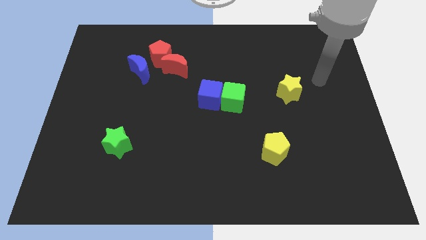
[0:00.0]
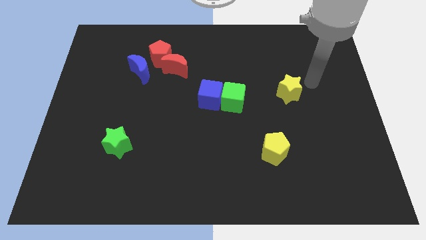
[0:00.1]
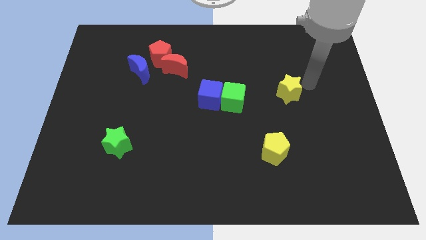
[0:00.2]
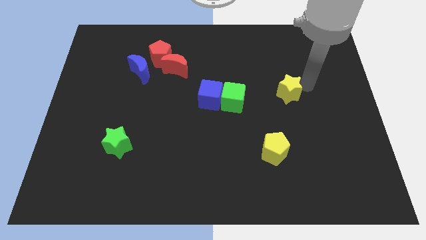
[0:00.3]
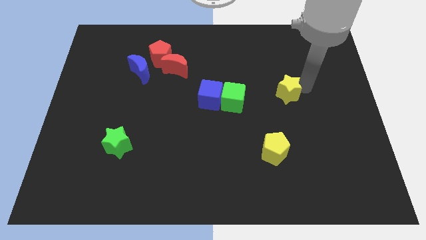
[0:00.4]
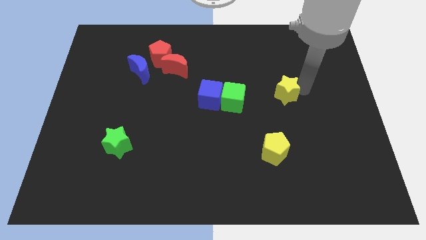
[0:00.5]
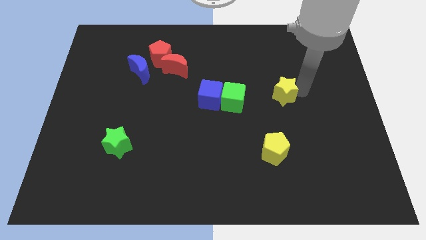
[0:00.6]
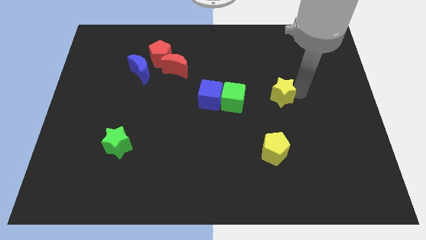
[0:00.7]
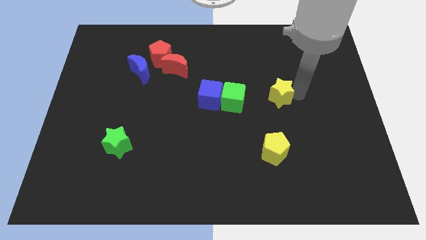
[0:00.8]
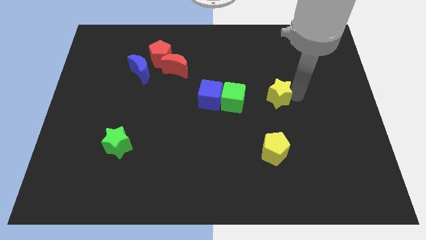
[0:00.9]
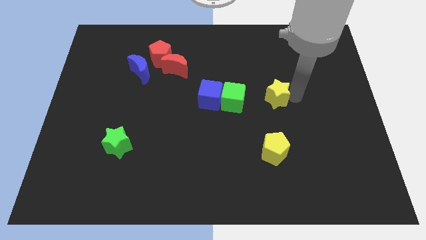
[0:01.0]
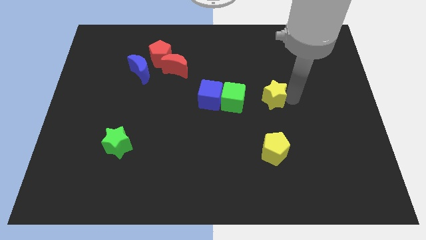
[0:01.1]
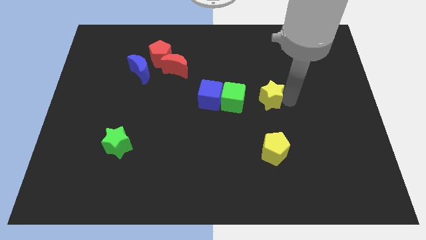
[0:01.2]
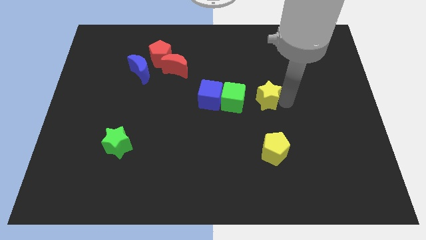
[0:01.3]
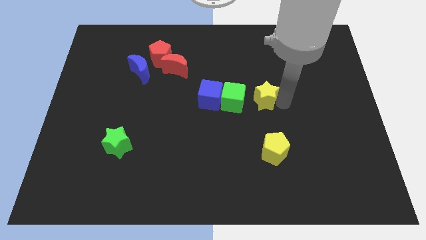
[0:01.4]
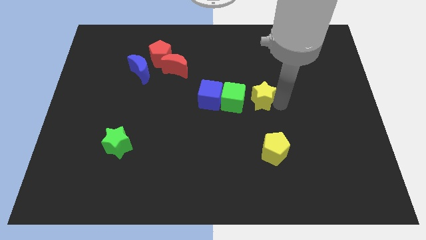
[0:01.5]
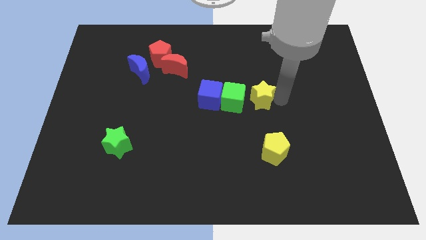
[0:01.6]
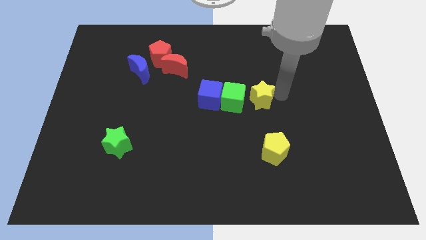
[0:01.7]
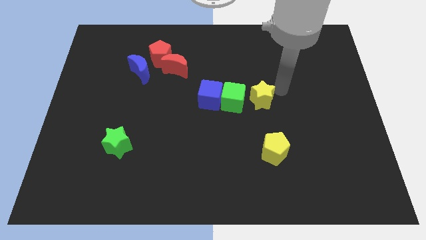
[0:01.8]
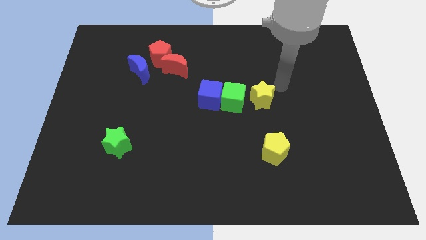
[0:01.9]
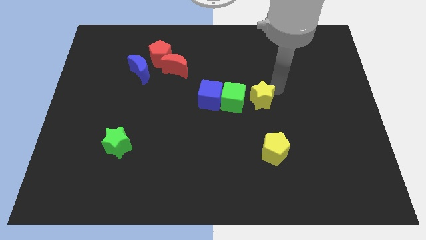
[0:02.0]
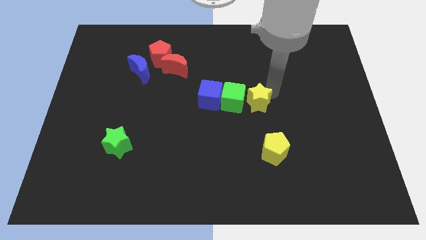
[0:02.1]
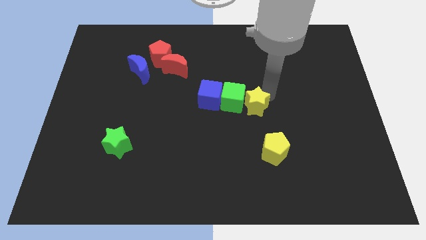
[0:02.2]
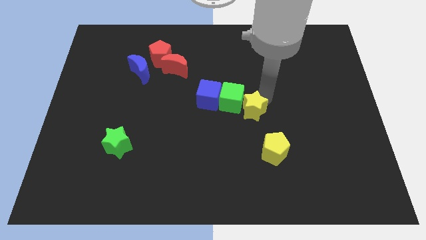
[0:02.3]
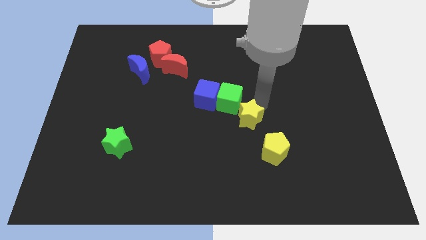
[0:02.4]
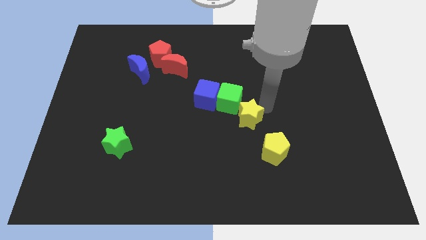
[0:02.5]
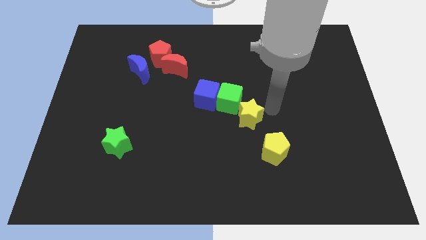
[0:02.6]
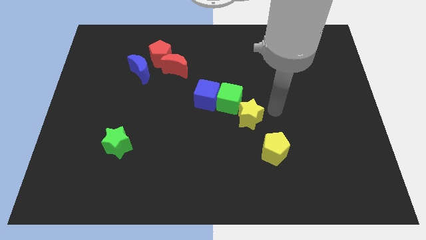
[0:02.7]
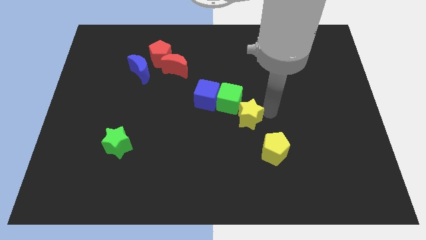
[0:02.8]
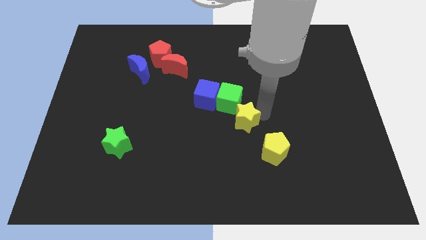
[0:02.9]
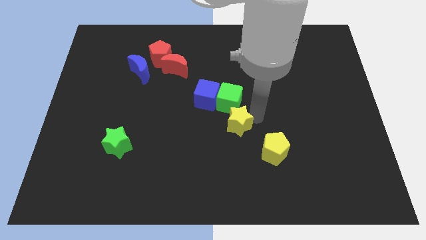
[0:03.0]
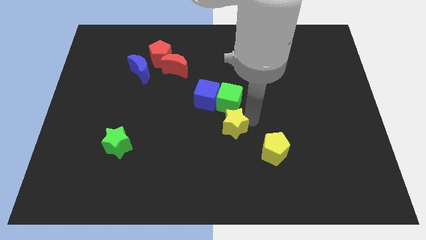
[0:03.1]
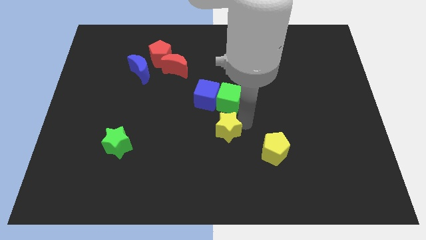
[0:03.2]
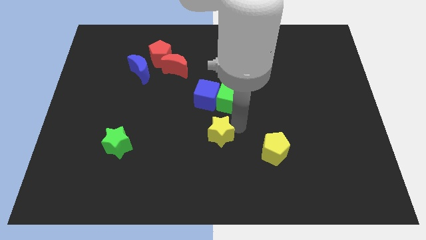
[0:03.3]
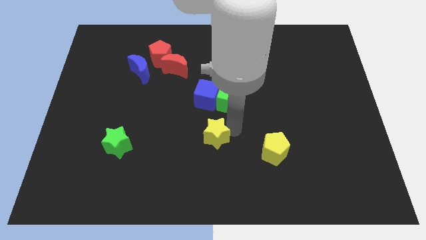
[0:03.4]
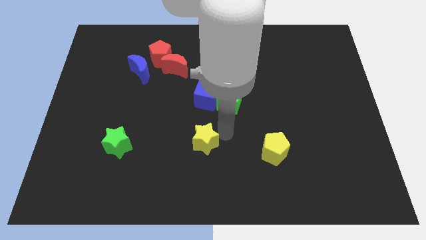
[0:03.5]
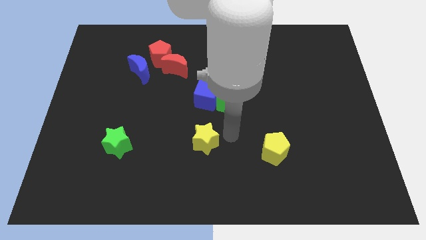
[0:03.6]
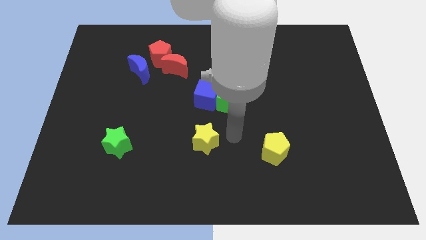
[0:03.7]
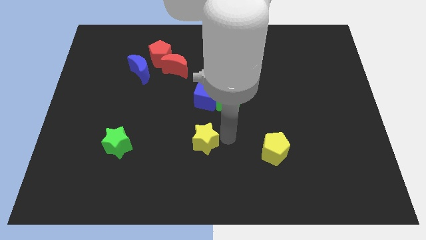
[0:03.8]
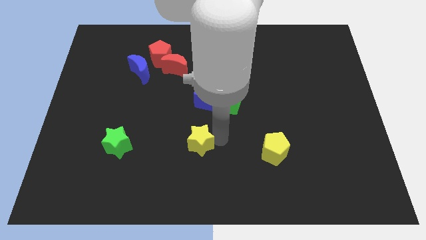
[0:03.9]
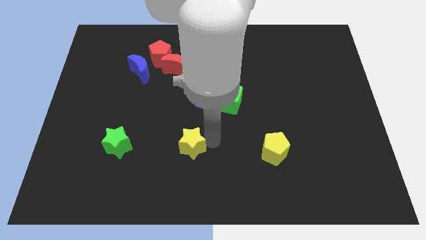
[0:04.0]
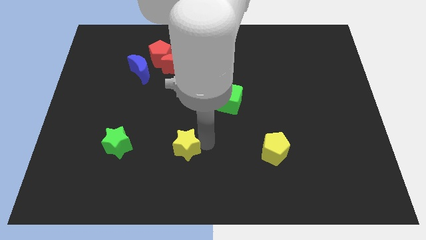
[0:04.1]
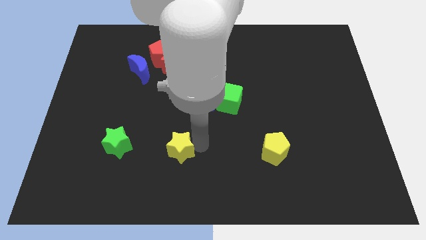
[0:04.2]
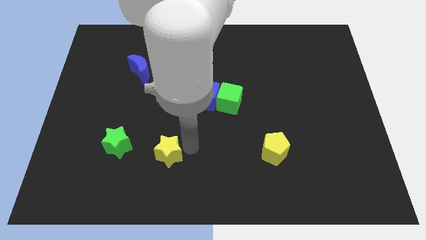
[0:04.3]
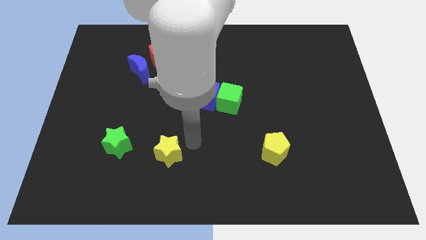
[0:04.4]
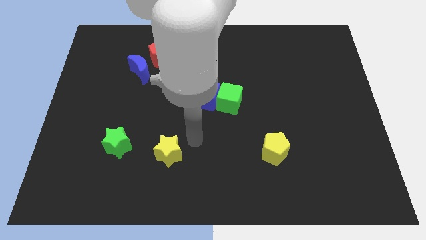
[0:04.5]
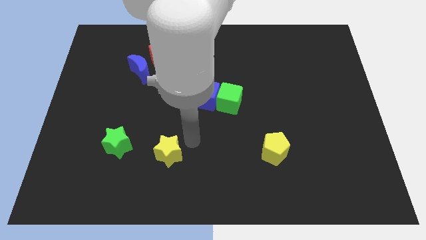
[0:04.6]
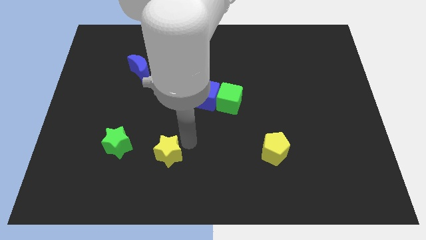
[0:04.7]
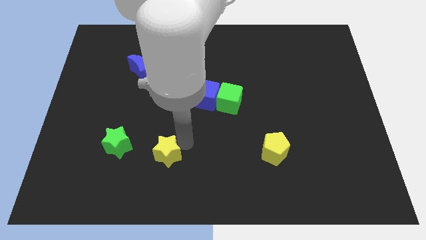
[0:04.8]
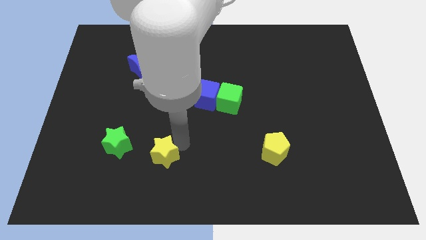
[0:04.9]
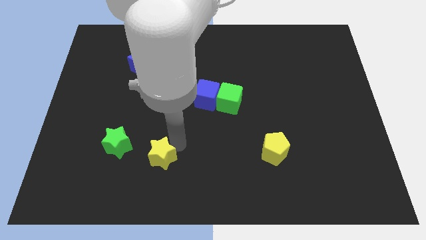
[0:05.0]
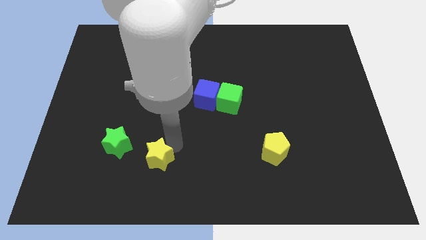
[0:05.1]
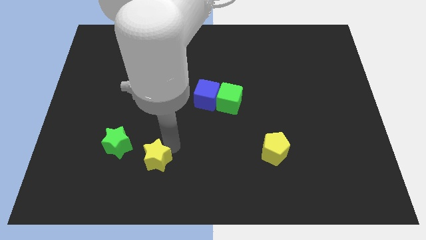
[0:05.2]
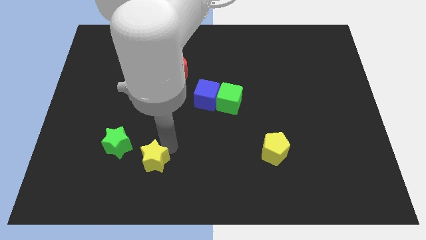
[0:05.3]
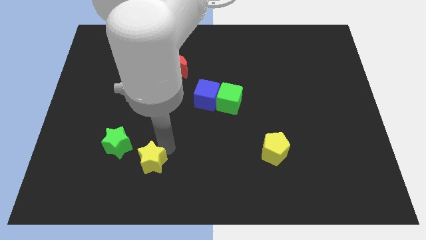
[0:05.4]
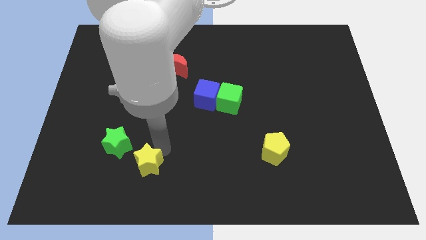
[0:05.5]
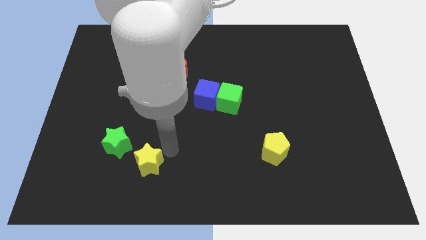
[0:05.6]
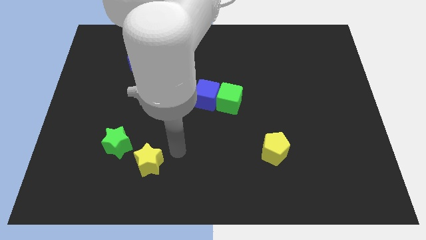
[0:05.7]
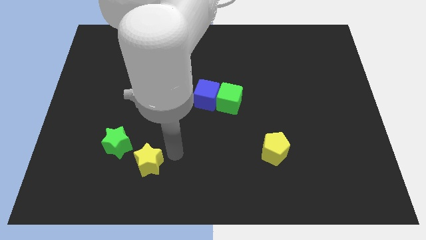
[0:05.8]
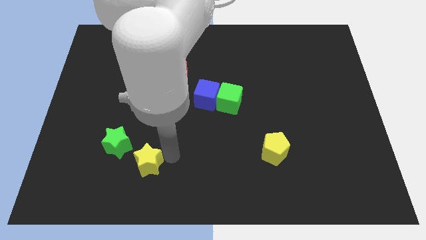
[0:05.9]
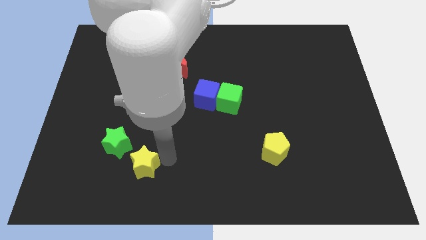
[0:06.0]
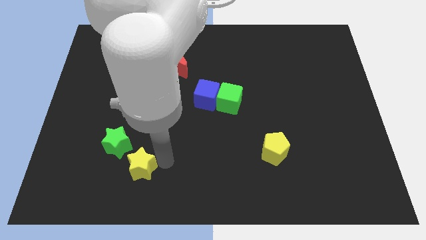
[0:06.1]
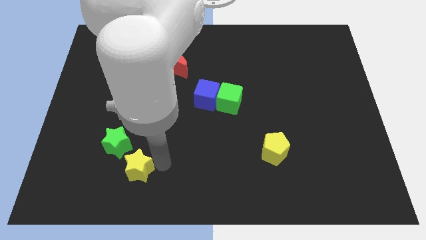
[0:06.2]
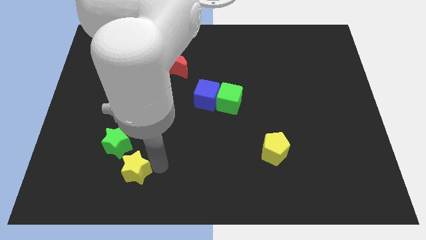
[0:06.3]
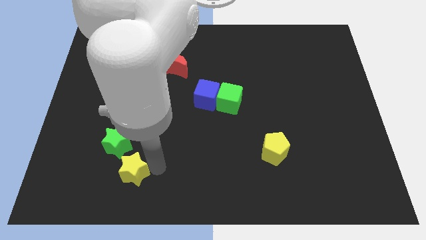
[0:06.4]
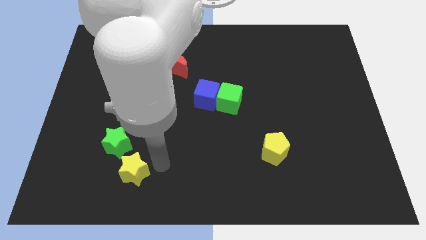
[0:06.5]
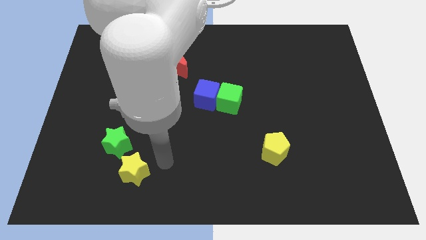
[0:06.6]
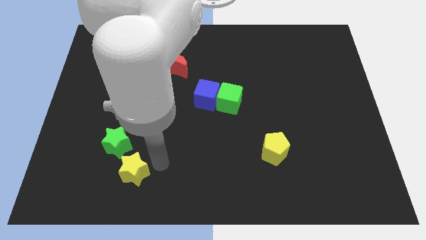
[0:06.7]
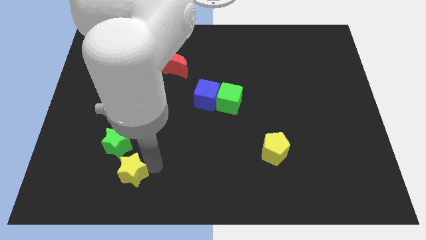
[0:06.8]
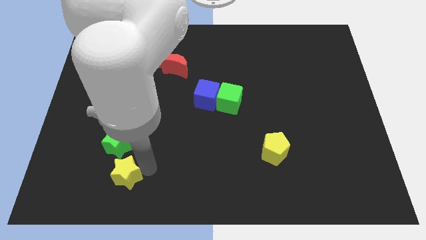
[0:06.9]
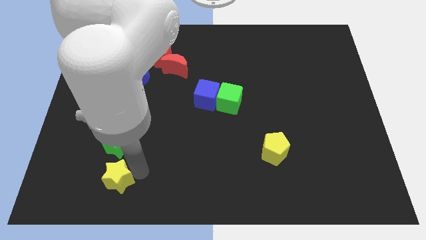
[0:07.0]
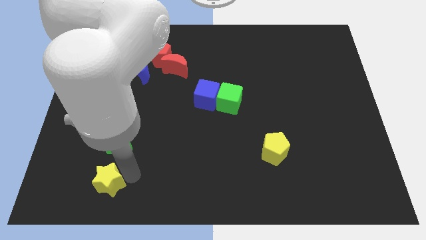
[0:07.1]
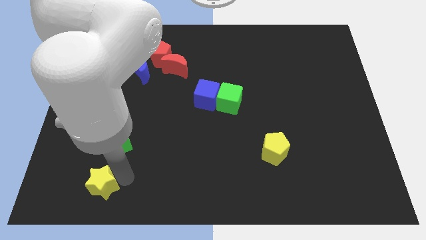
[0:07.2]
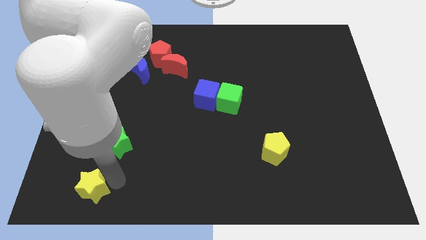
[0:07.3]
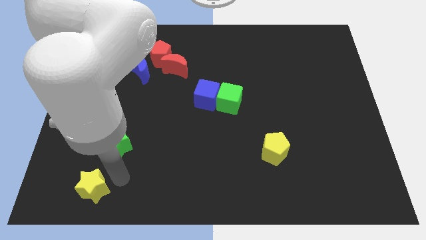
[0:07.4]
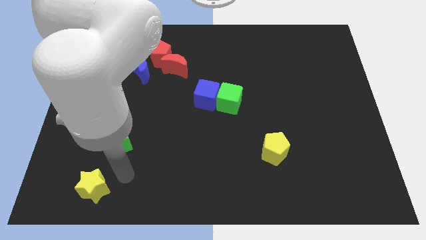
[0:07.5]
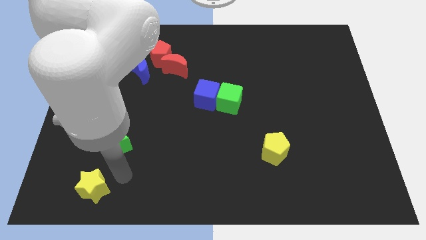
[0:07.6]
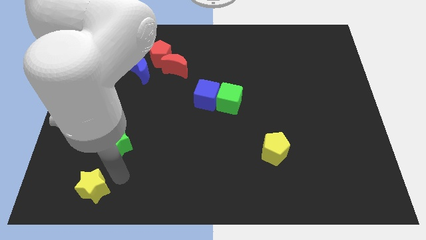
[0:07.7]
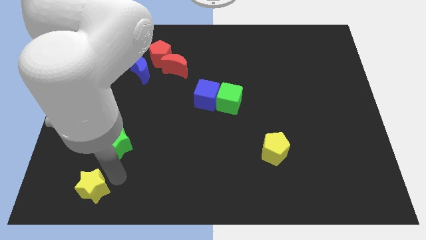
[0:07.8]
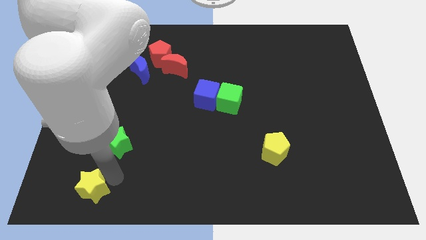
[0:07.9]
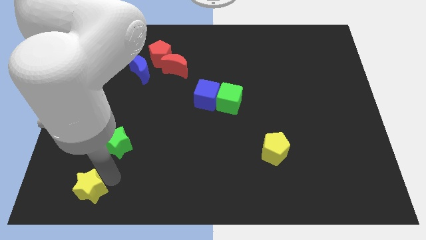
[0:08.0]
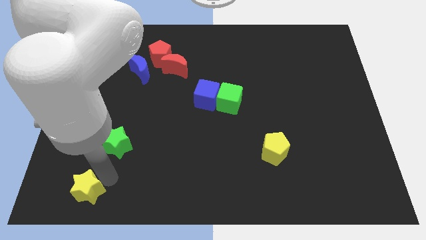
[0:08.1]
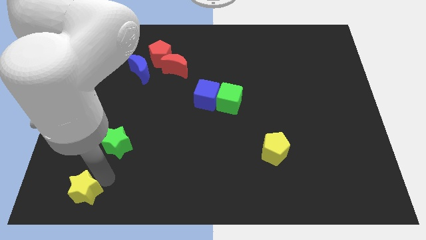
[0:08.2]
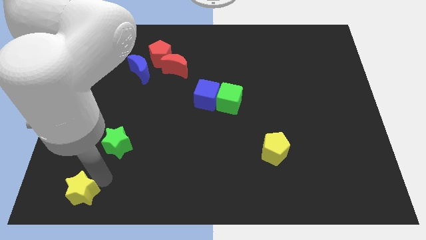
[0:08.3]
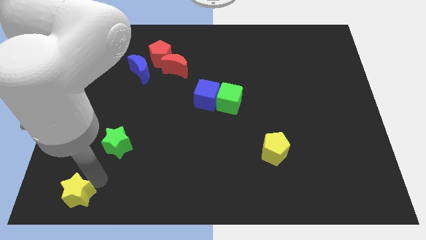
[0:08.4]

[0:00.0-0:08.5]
put the yellow star to the bottom left of the board
